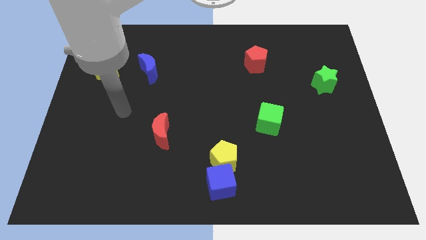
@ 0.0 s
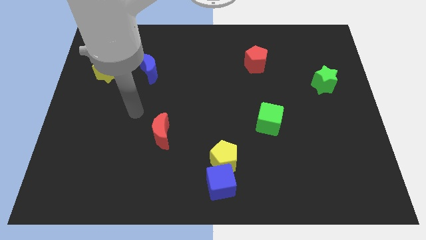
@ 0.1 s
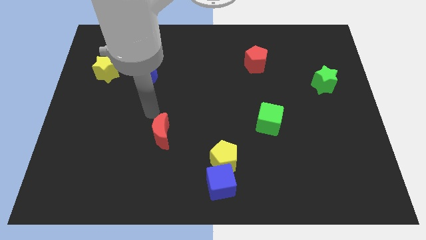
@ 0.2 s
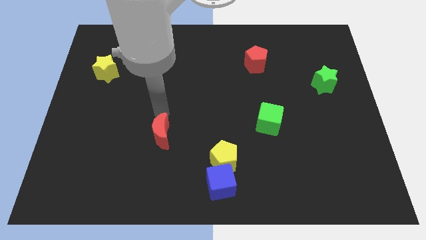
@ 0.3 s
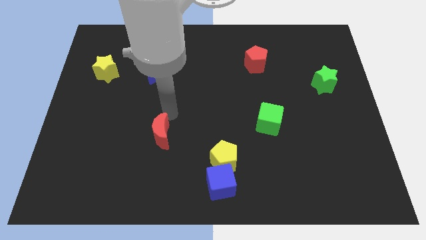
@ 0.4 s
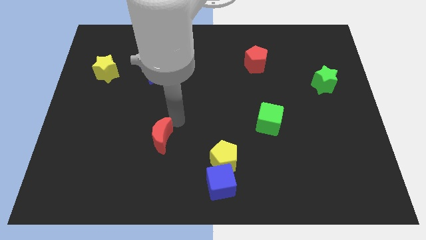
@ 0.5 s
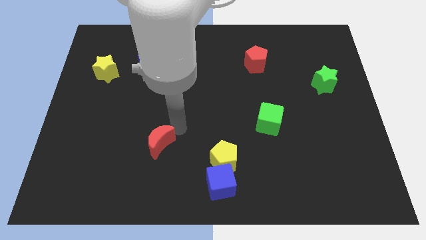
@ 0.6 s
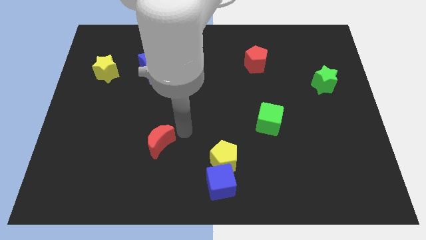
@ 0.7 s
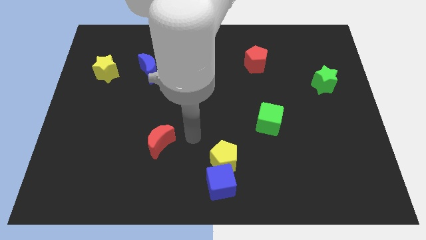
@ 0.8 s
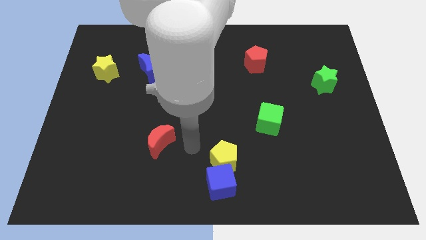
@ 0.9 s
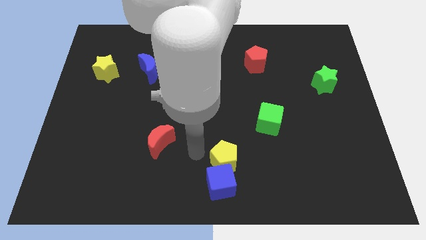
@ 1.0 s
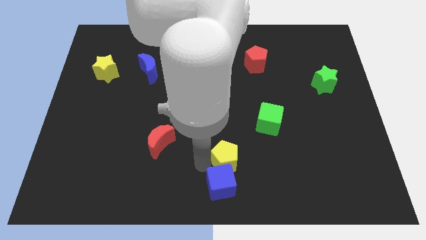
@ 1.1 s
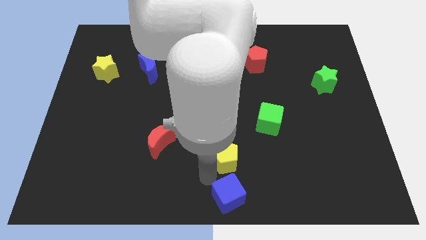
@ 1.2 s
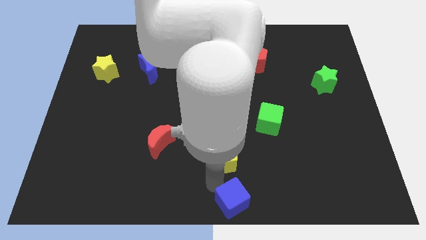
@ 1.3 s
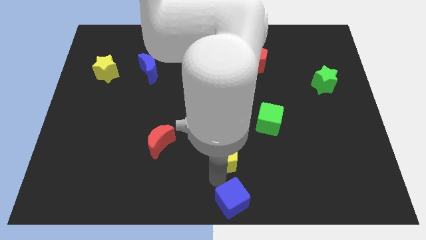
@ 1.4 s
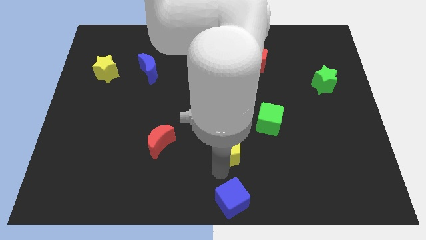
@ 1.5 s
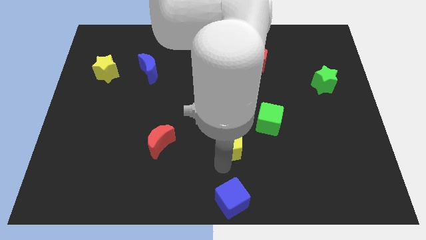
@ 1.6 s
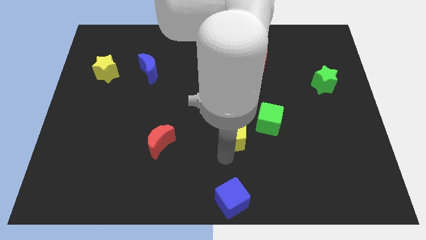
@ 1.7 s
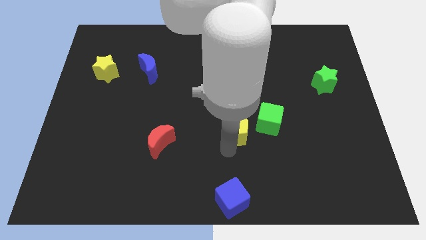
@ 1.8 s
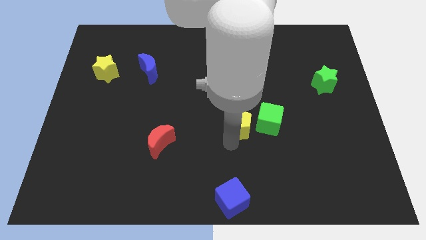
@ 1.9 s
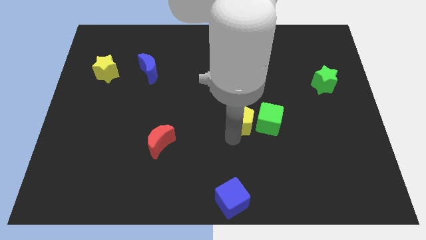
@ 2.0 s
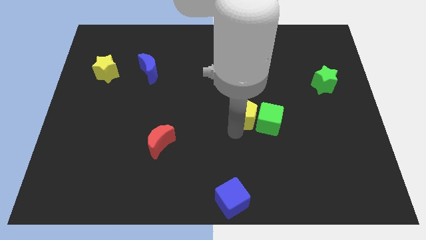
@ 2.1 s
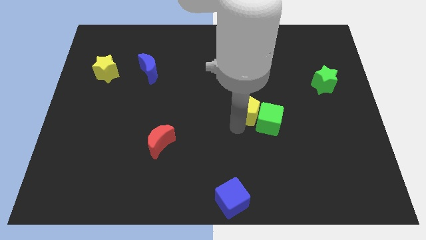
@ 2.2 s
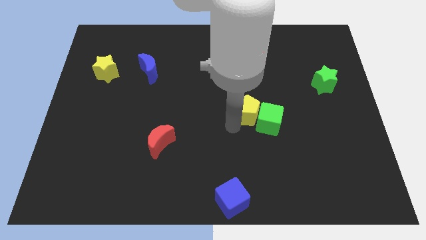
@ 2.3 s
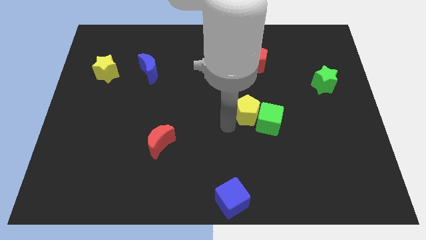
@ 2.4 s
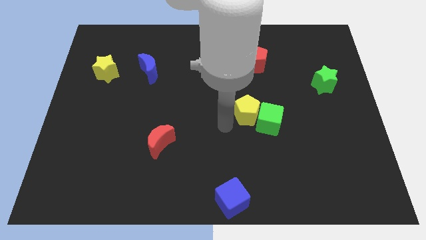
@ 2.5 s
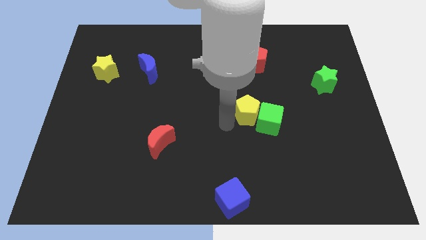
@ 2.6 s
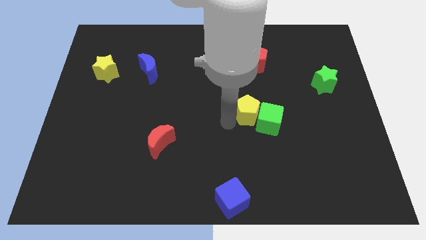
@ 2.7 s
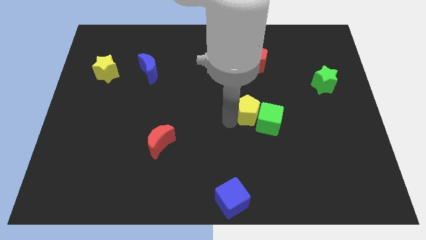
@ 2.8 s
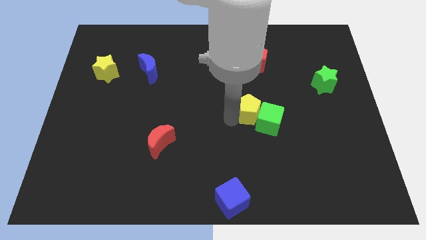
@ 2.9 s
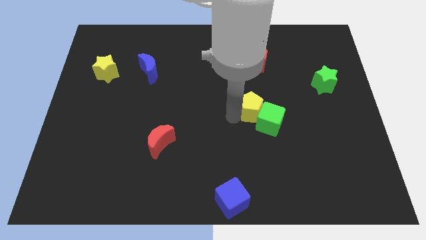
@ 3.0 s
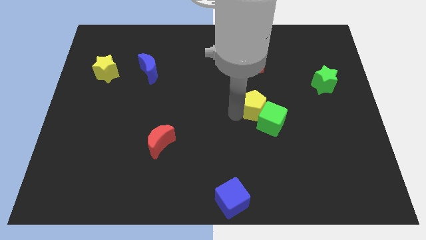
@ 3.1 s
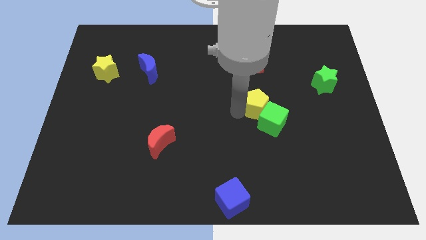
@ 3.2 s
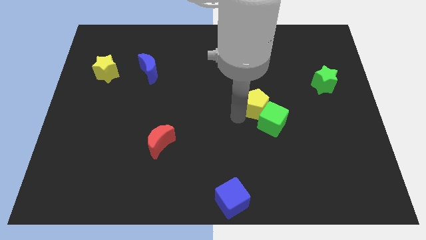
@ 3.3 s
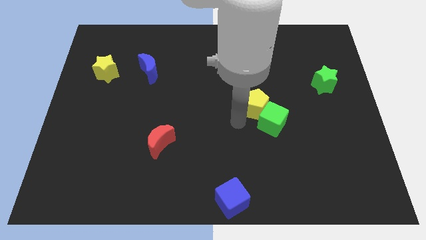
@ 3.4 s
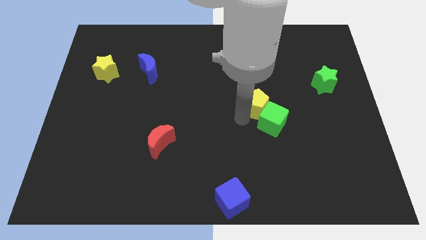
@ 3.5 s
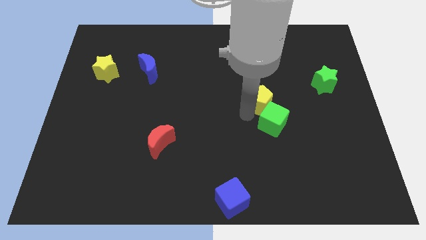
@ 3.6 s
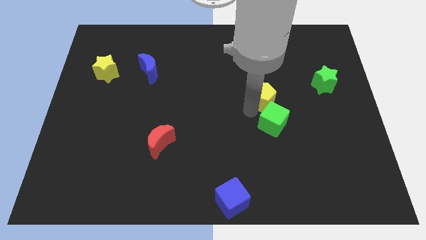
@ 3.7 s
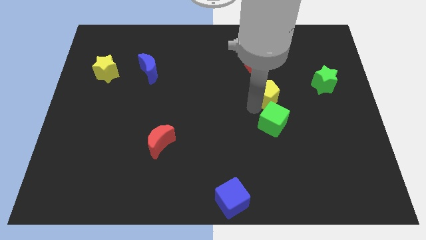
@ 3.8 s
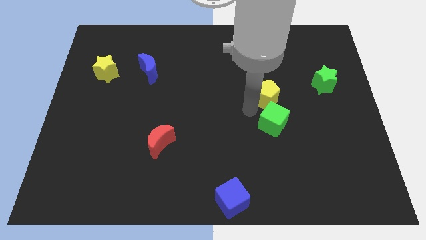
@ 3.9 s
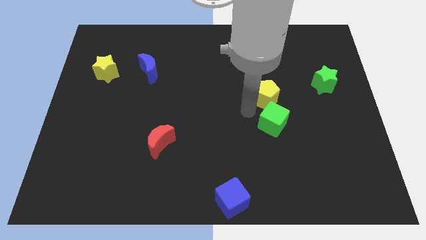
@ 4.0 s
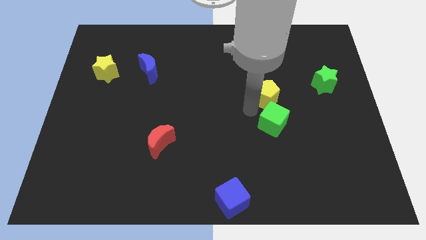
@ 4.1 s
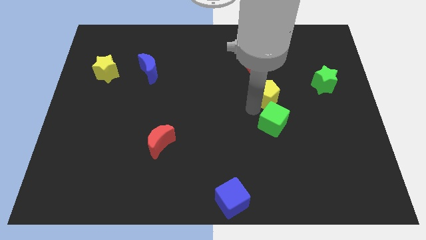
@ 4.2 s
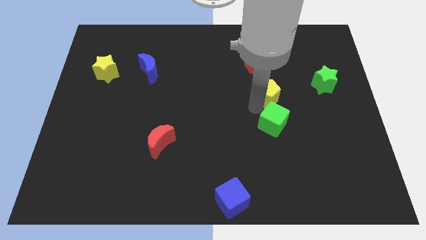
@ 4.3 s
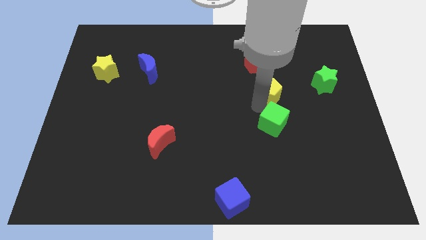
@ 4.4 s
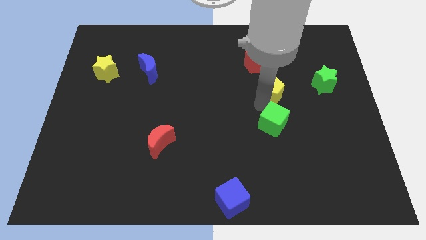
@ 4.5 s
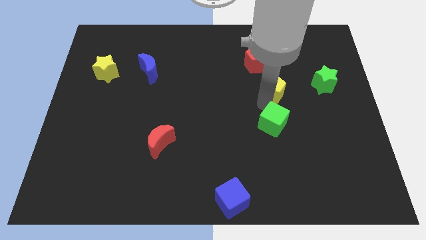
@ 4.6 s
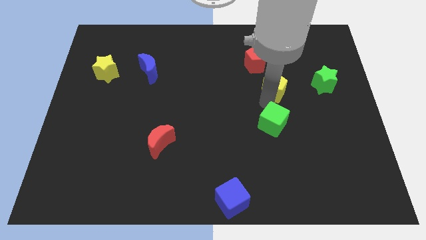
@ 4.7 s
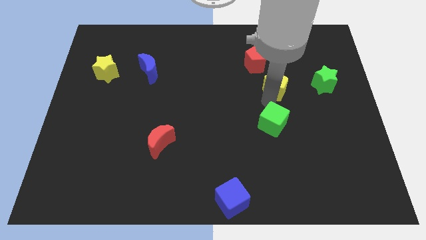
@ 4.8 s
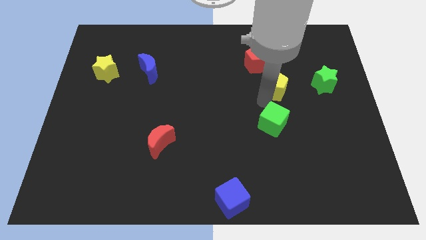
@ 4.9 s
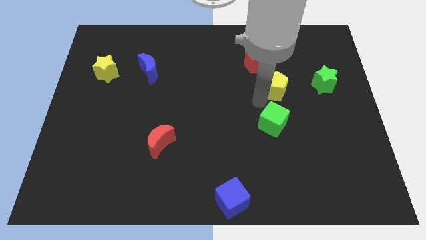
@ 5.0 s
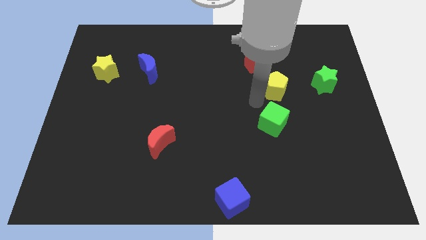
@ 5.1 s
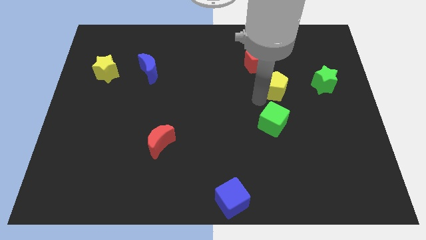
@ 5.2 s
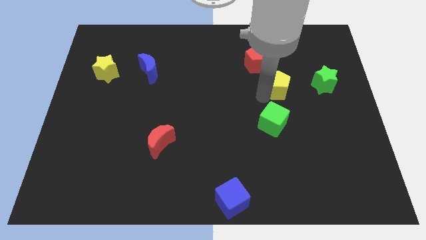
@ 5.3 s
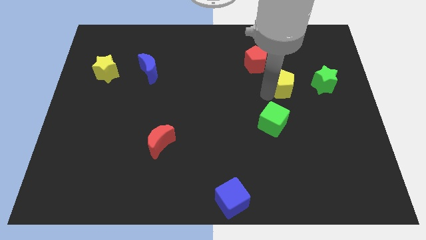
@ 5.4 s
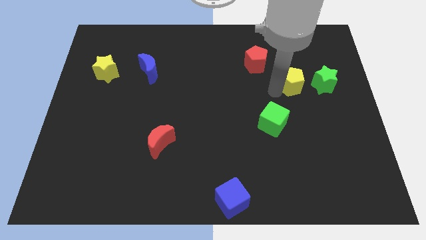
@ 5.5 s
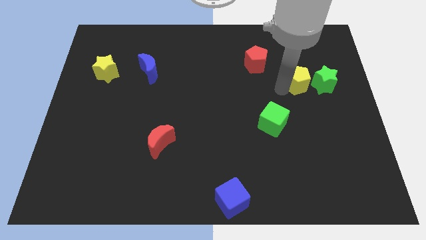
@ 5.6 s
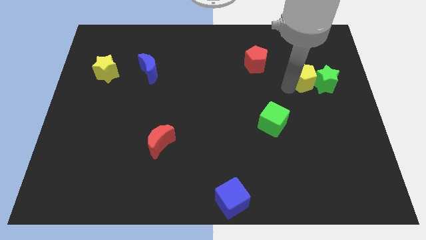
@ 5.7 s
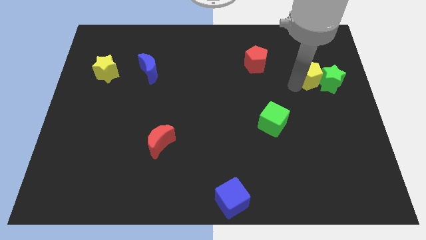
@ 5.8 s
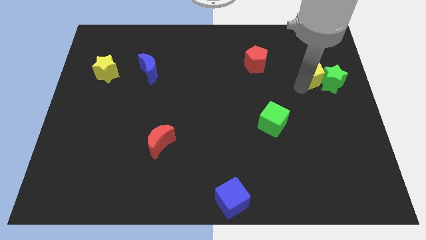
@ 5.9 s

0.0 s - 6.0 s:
push the yellow pentagon to the right side of the red pentagon

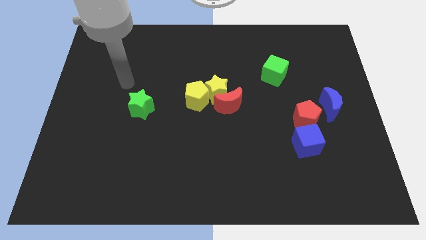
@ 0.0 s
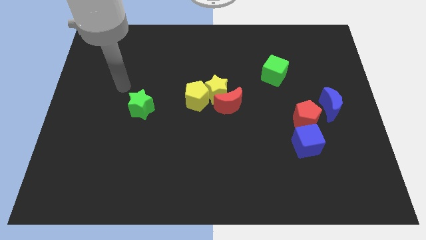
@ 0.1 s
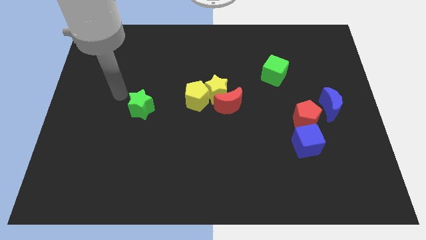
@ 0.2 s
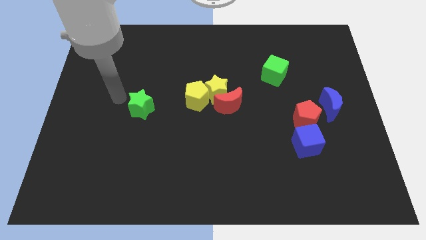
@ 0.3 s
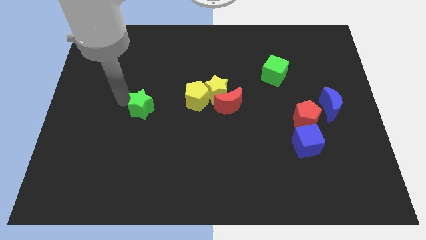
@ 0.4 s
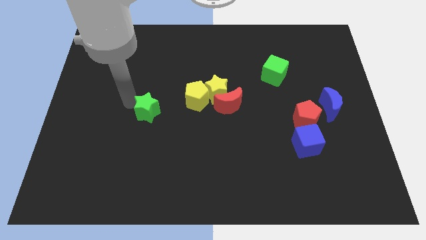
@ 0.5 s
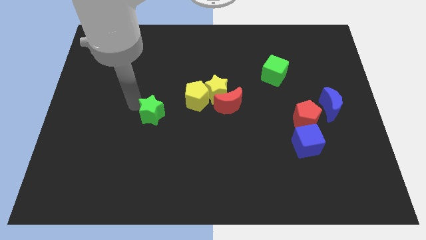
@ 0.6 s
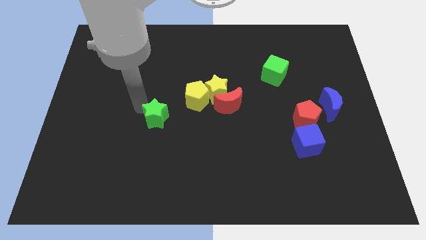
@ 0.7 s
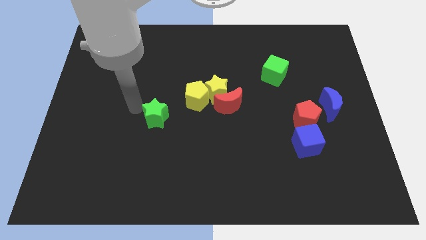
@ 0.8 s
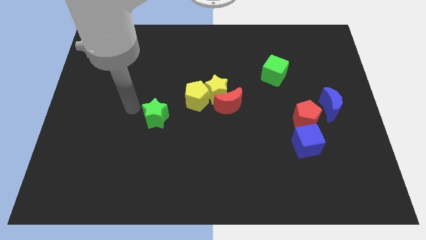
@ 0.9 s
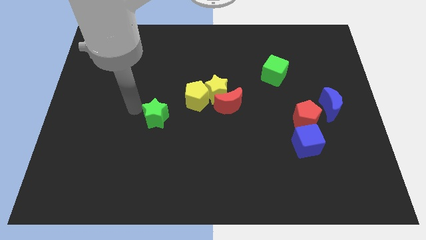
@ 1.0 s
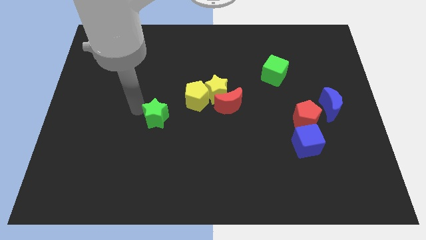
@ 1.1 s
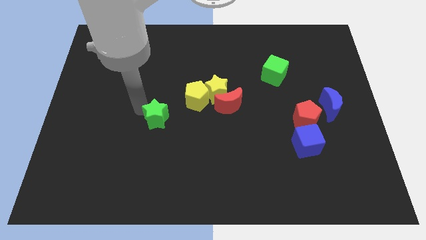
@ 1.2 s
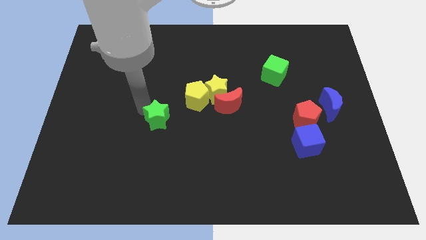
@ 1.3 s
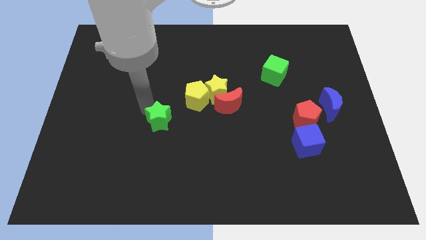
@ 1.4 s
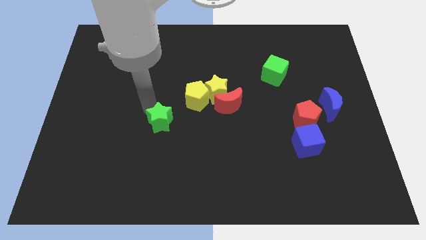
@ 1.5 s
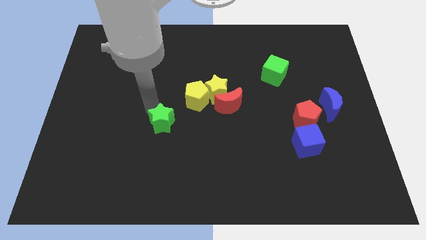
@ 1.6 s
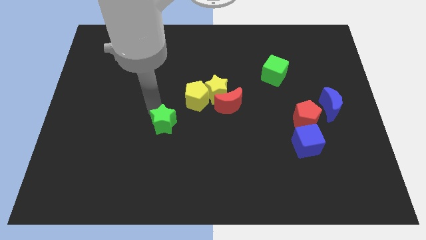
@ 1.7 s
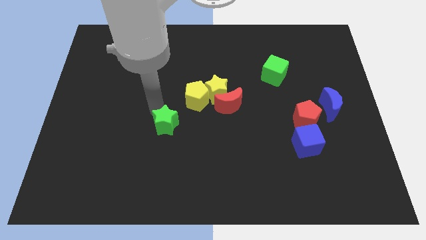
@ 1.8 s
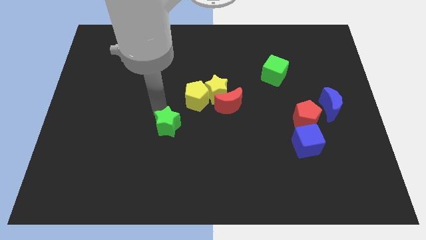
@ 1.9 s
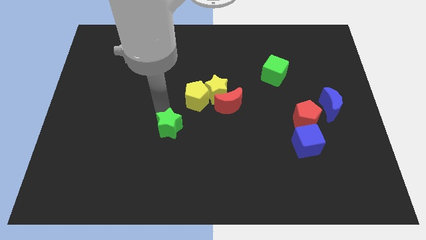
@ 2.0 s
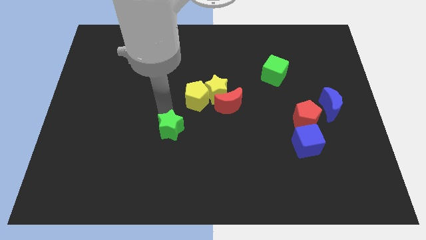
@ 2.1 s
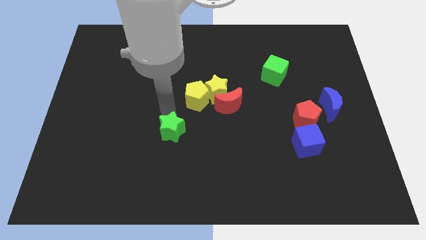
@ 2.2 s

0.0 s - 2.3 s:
move the green star below the yellow pentagon
